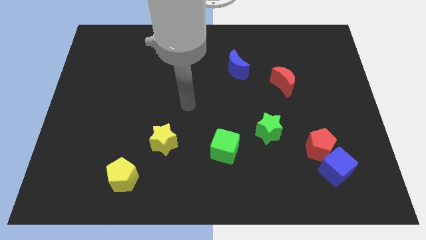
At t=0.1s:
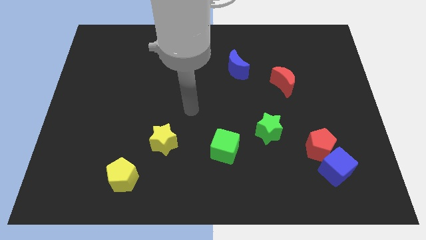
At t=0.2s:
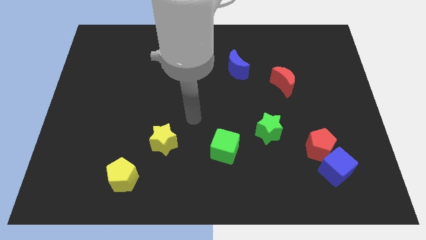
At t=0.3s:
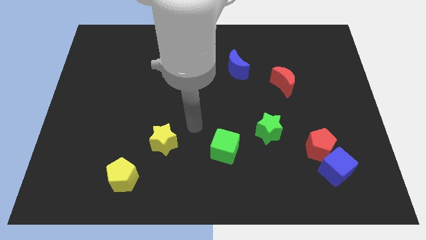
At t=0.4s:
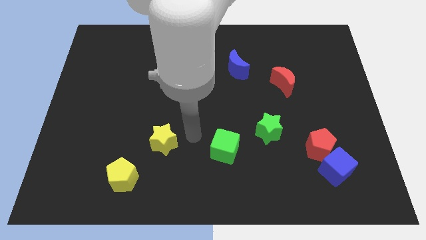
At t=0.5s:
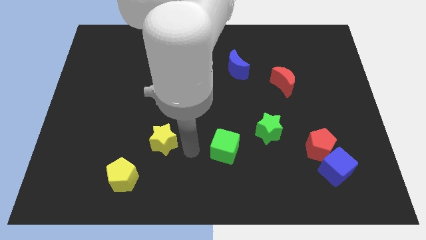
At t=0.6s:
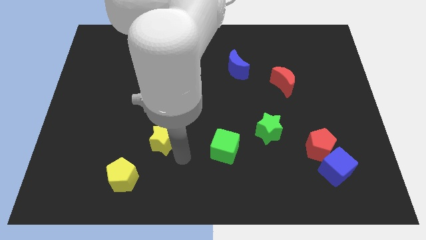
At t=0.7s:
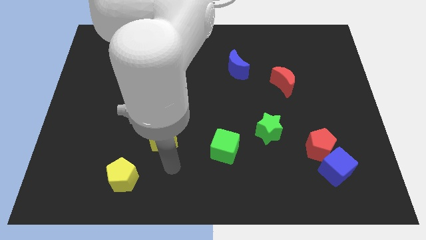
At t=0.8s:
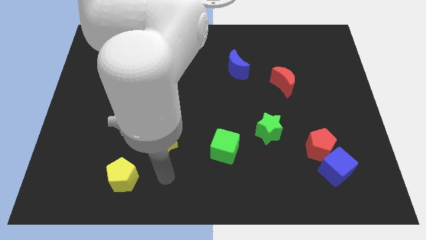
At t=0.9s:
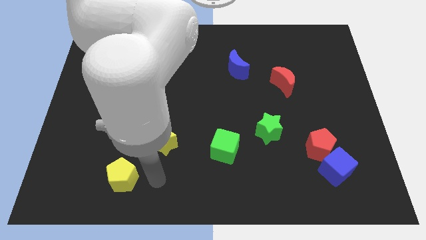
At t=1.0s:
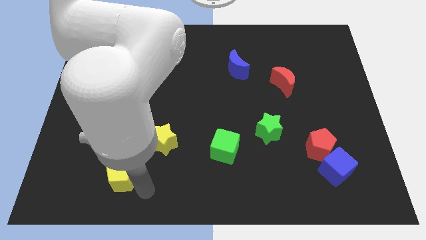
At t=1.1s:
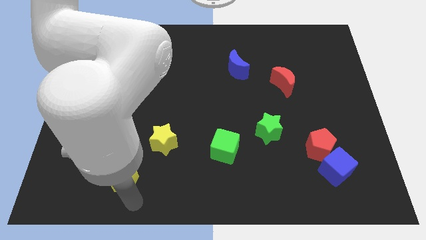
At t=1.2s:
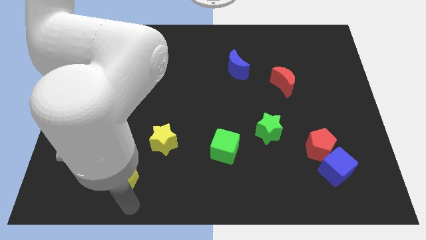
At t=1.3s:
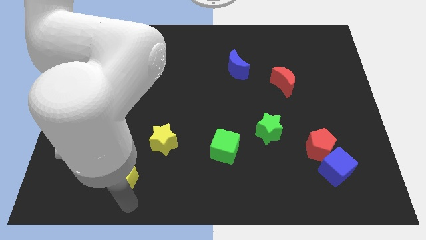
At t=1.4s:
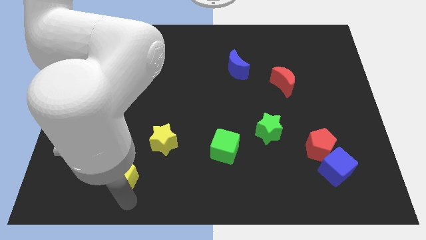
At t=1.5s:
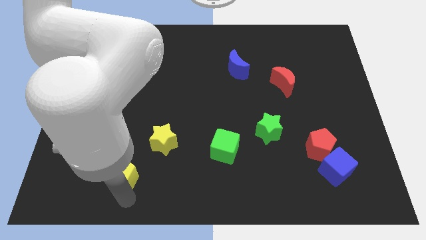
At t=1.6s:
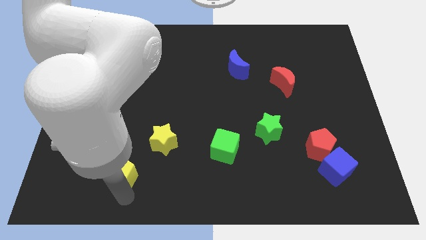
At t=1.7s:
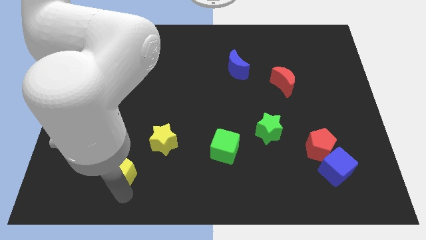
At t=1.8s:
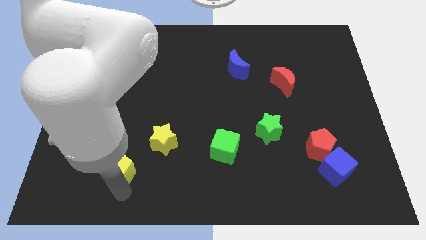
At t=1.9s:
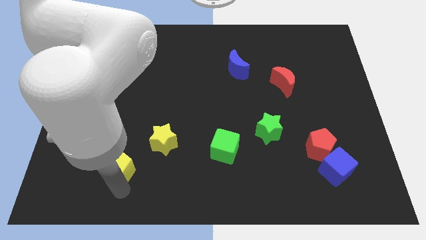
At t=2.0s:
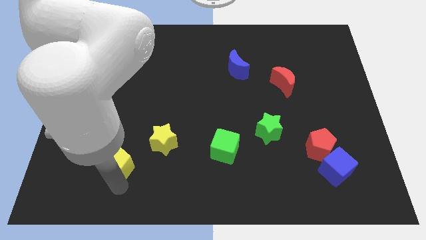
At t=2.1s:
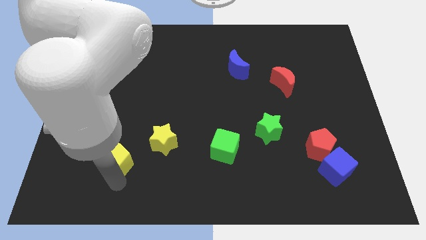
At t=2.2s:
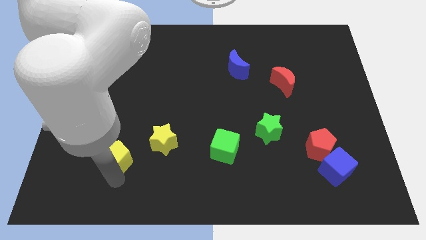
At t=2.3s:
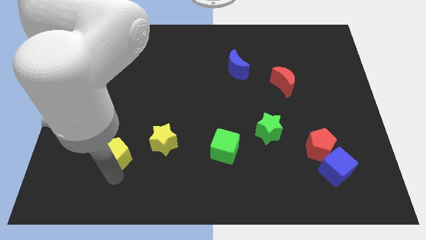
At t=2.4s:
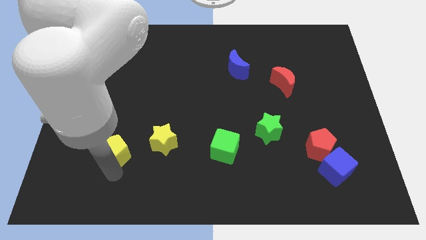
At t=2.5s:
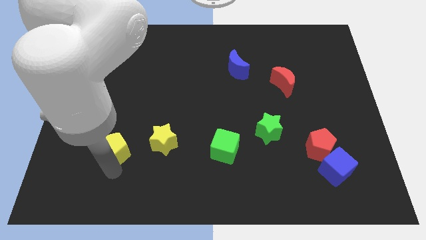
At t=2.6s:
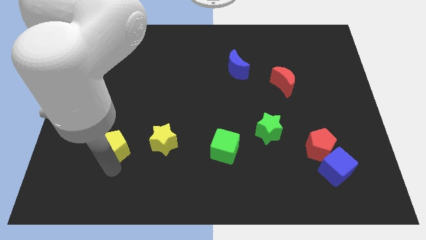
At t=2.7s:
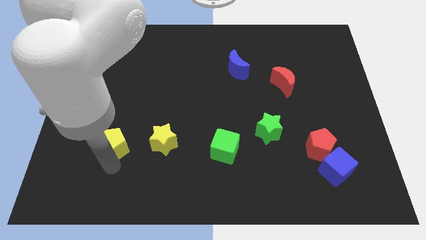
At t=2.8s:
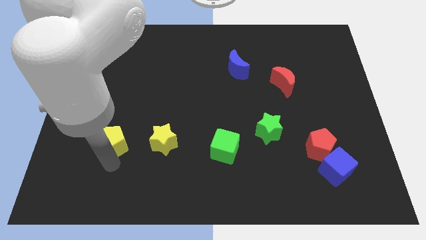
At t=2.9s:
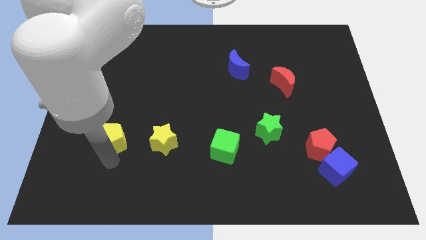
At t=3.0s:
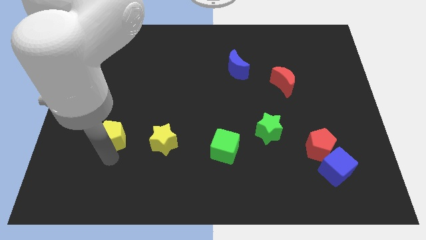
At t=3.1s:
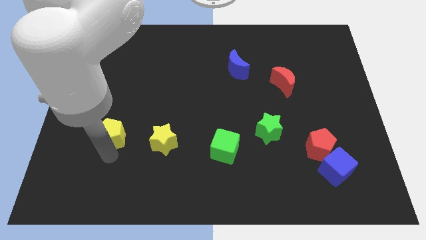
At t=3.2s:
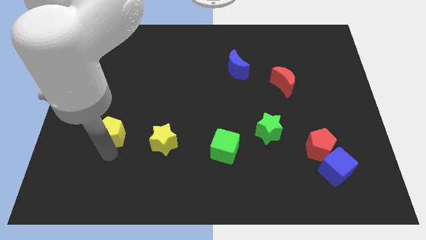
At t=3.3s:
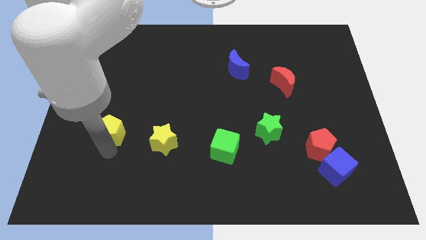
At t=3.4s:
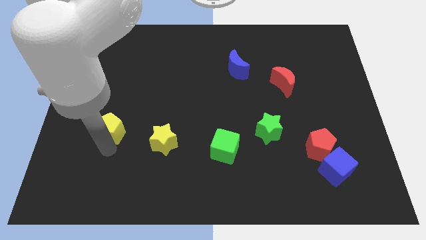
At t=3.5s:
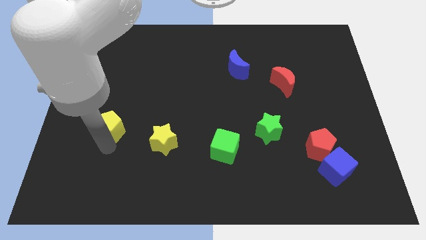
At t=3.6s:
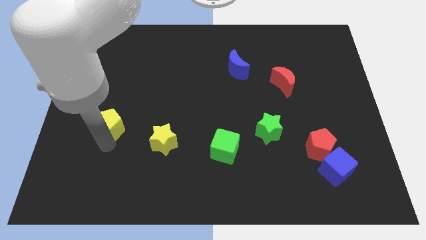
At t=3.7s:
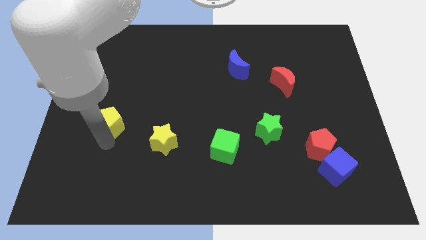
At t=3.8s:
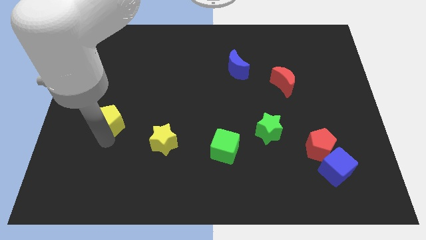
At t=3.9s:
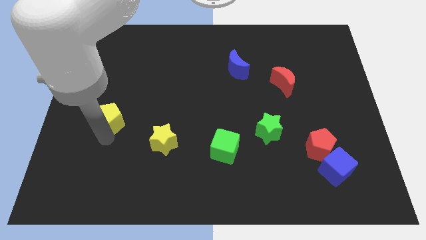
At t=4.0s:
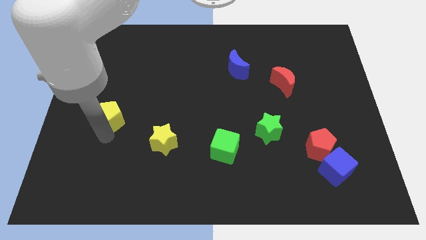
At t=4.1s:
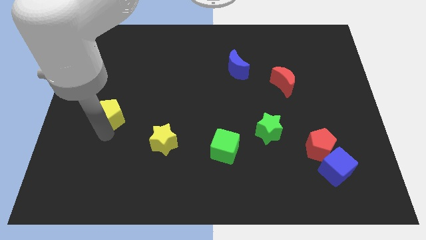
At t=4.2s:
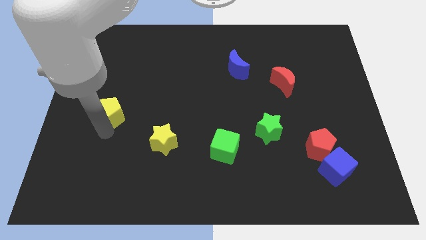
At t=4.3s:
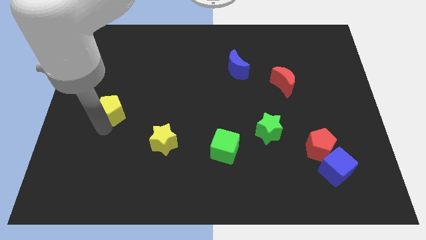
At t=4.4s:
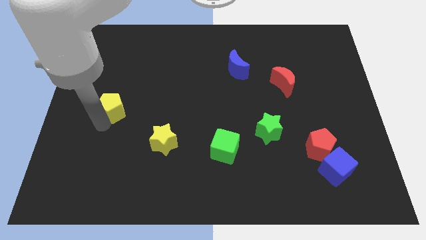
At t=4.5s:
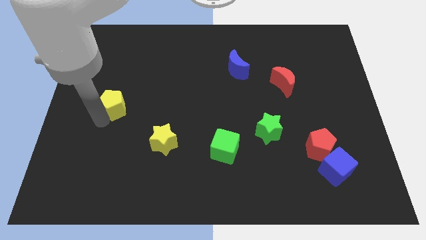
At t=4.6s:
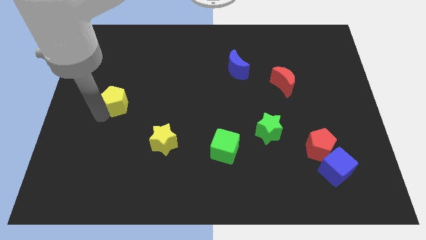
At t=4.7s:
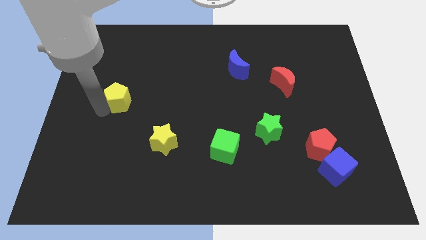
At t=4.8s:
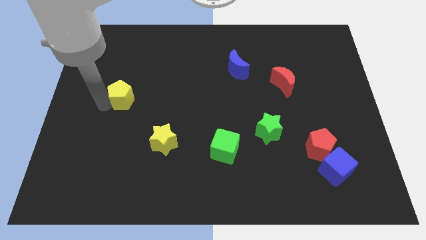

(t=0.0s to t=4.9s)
slide the yellow pentagon upwards

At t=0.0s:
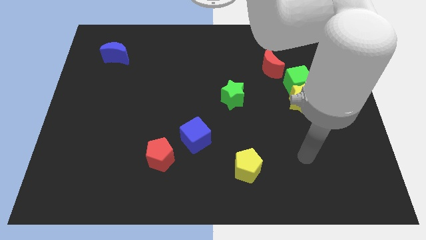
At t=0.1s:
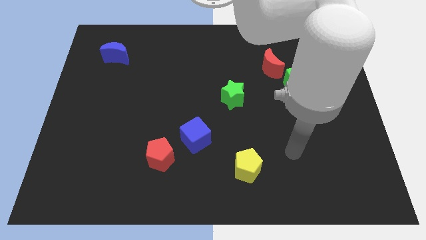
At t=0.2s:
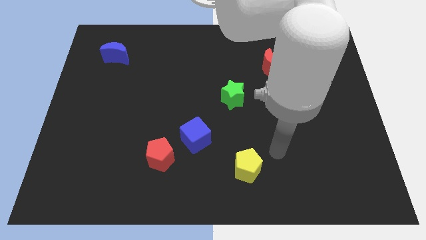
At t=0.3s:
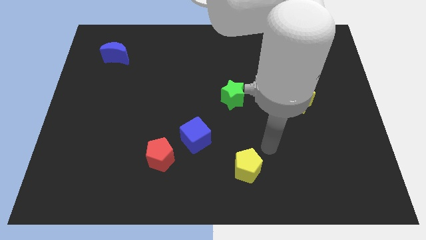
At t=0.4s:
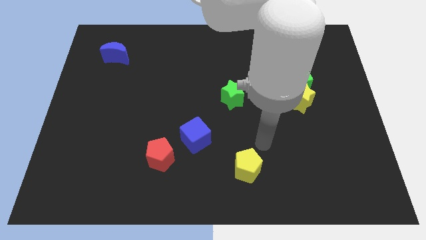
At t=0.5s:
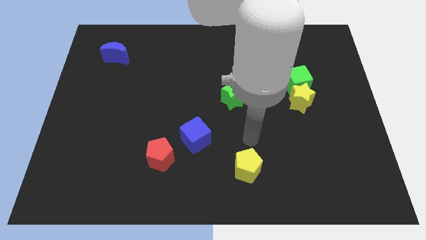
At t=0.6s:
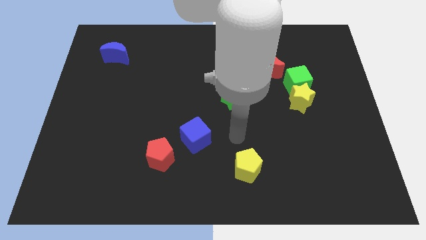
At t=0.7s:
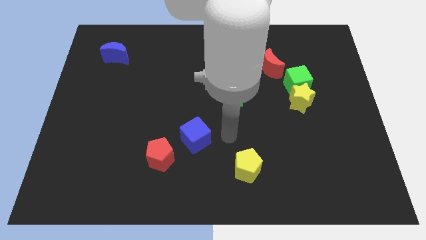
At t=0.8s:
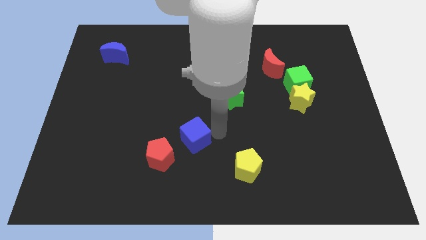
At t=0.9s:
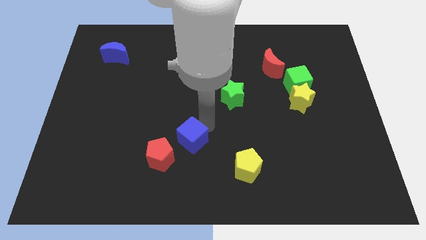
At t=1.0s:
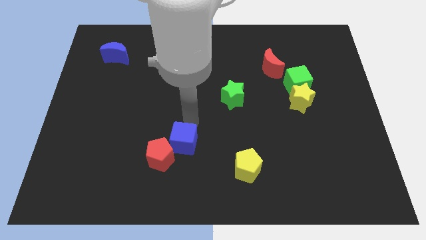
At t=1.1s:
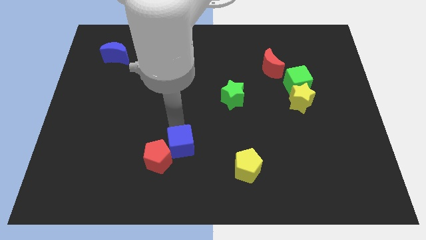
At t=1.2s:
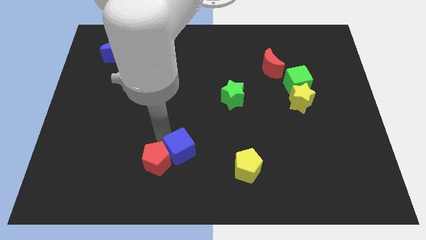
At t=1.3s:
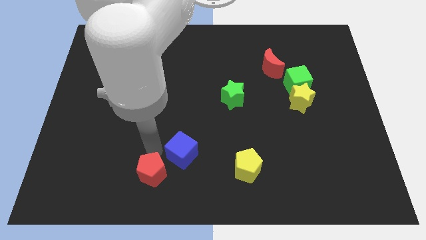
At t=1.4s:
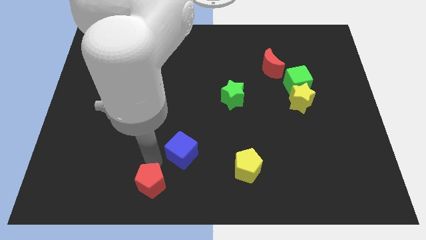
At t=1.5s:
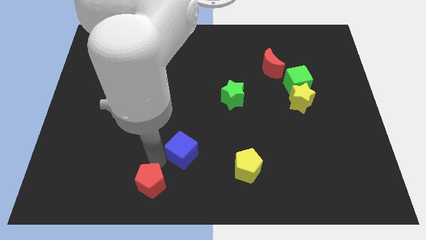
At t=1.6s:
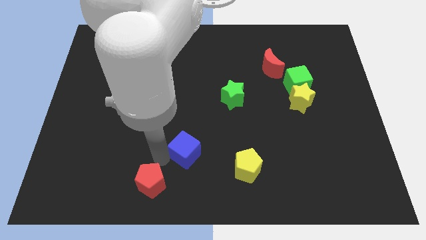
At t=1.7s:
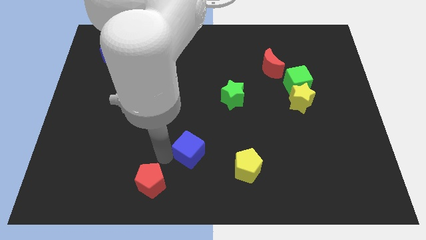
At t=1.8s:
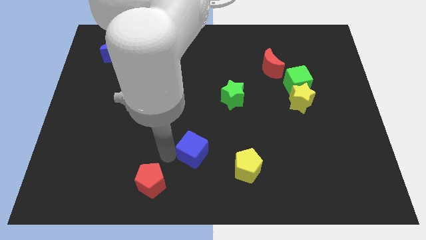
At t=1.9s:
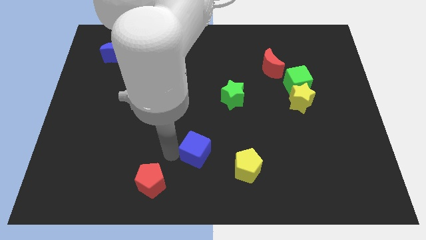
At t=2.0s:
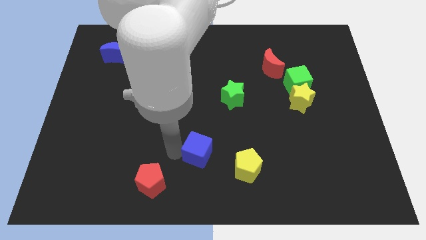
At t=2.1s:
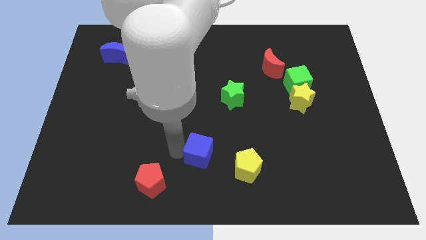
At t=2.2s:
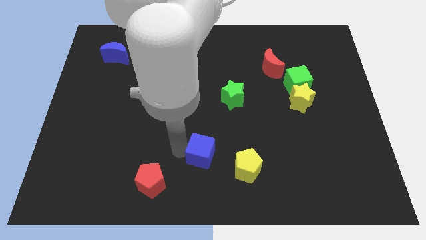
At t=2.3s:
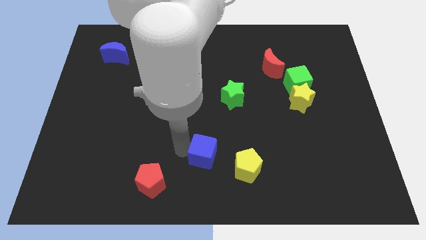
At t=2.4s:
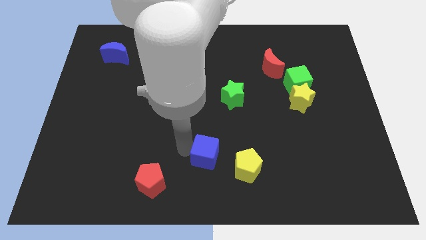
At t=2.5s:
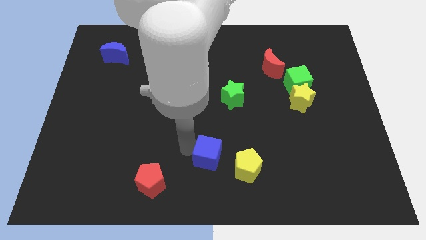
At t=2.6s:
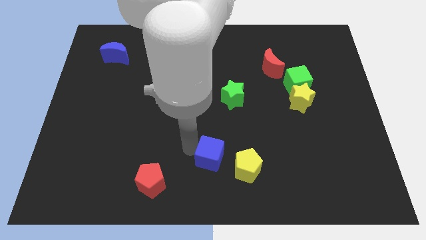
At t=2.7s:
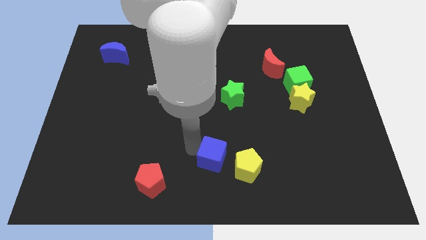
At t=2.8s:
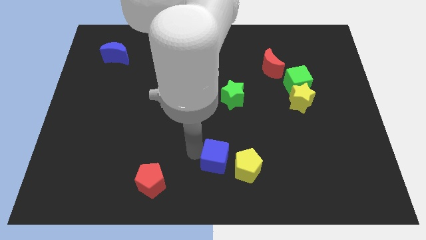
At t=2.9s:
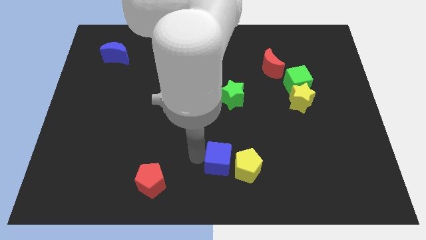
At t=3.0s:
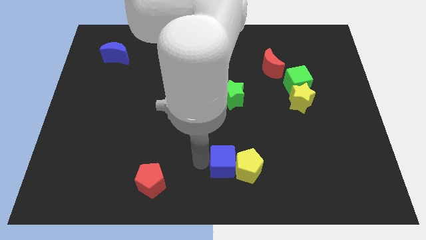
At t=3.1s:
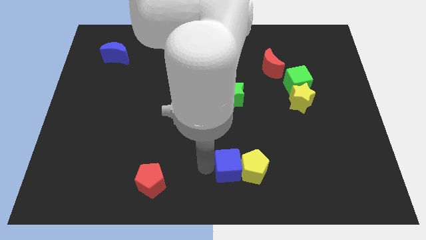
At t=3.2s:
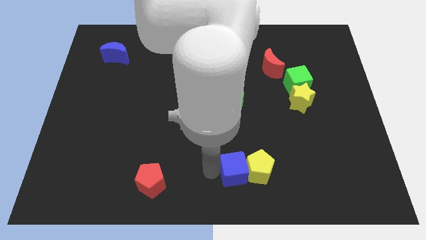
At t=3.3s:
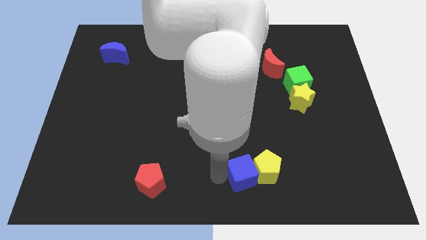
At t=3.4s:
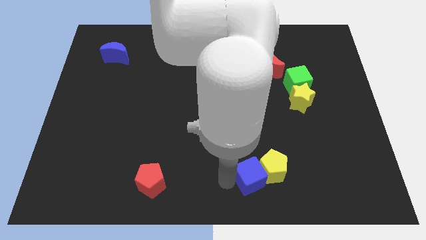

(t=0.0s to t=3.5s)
push the blue cube a bit to the right
